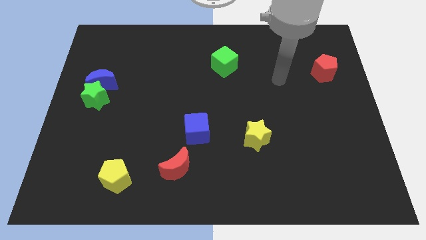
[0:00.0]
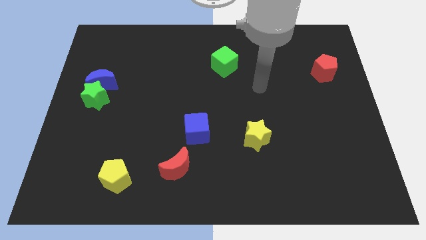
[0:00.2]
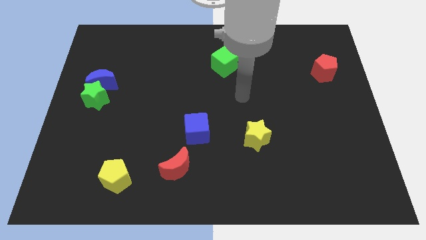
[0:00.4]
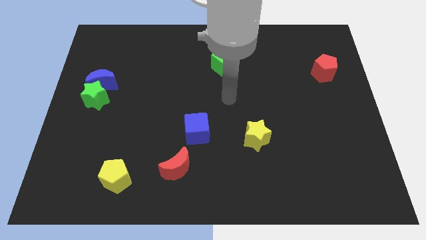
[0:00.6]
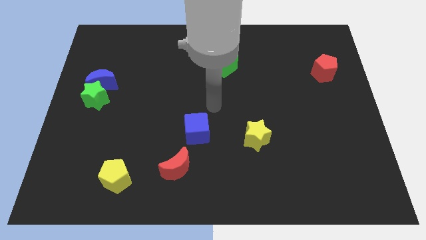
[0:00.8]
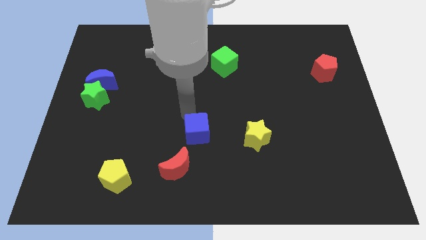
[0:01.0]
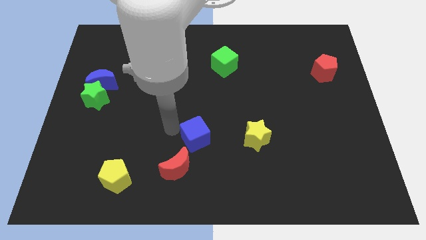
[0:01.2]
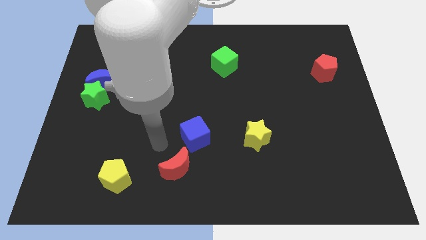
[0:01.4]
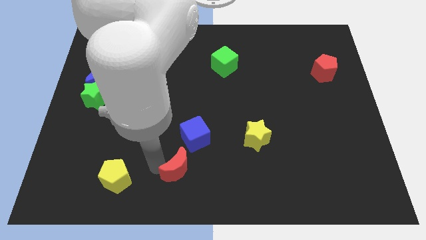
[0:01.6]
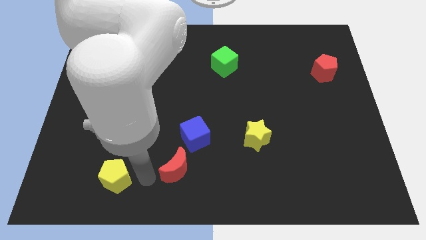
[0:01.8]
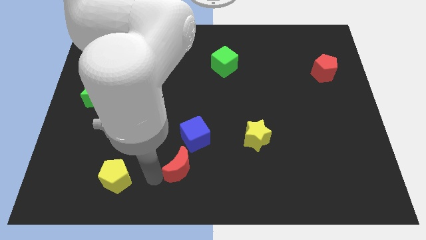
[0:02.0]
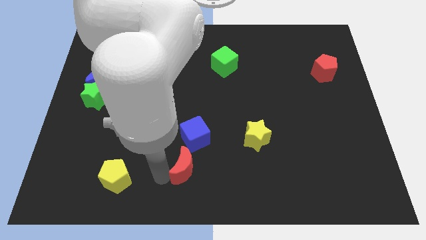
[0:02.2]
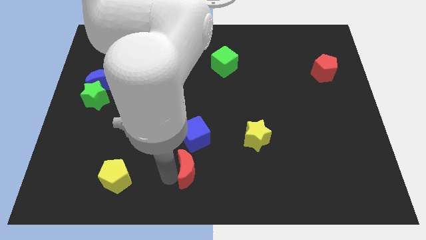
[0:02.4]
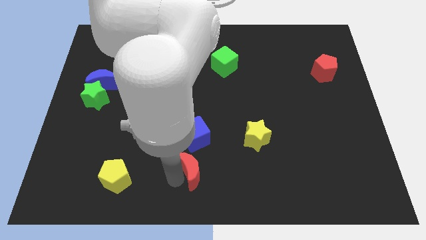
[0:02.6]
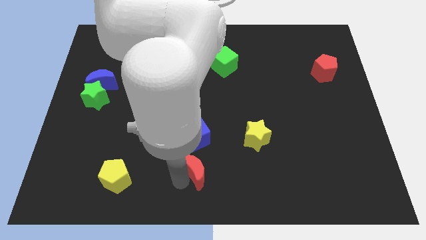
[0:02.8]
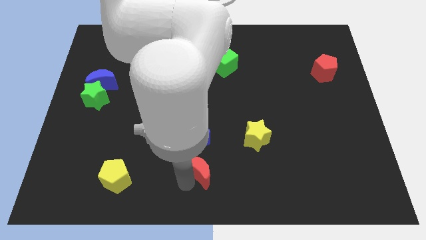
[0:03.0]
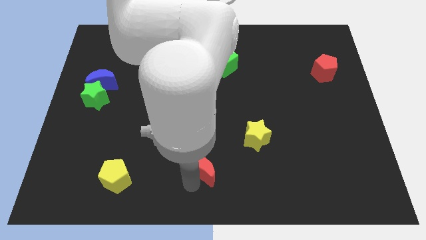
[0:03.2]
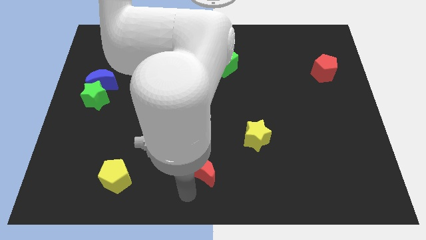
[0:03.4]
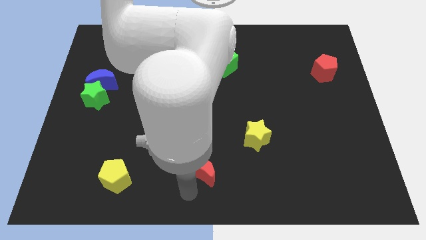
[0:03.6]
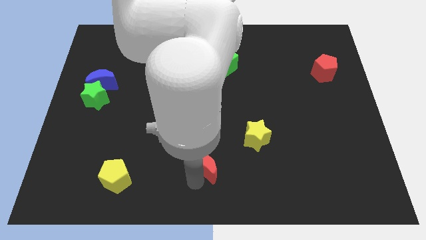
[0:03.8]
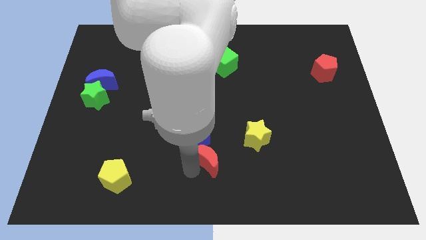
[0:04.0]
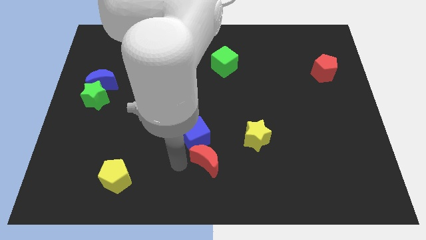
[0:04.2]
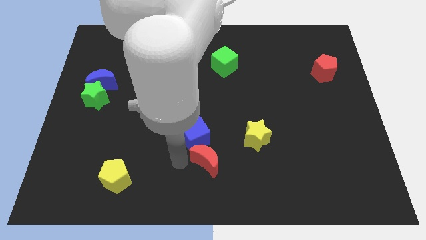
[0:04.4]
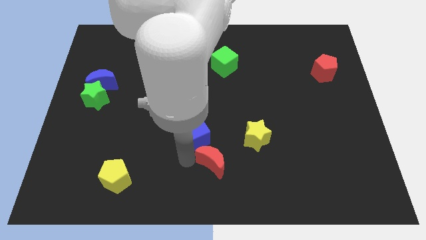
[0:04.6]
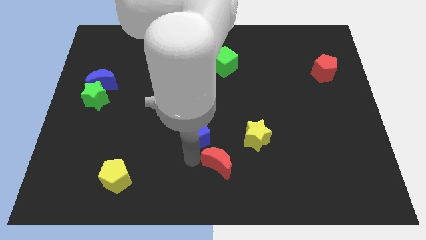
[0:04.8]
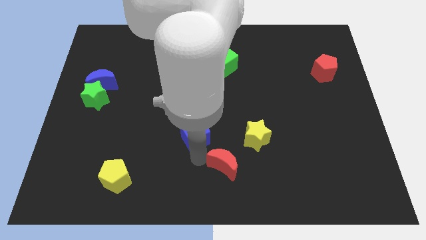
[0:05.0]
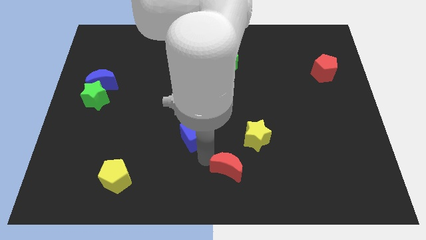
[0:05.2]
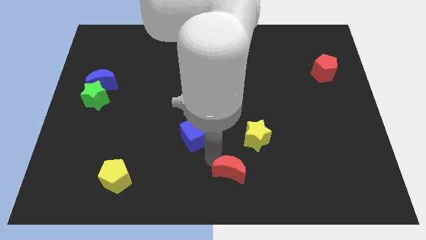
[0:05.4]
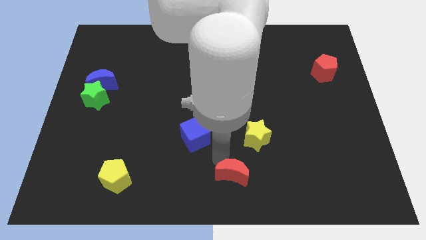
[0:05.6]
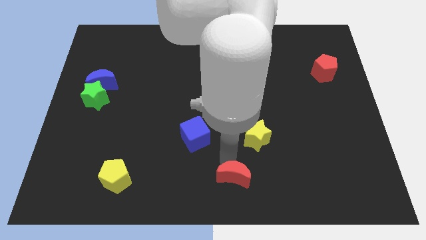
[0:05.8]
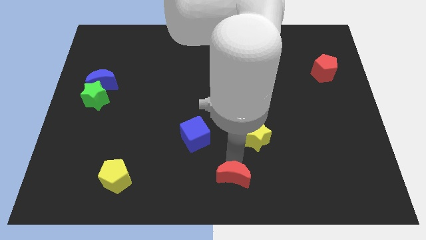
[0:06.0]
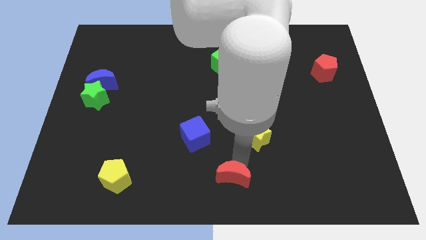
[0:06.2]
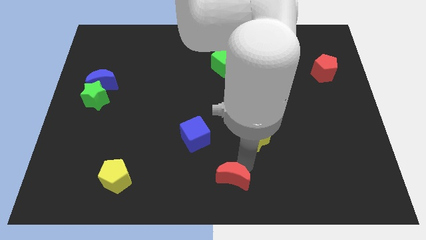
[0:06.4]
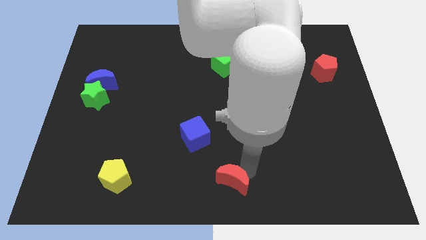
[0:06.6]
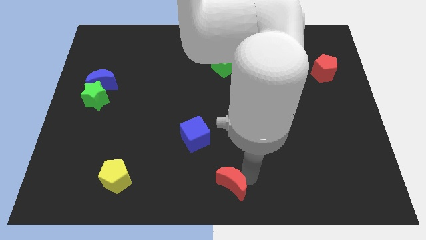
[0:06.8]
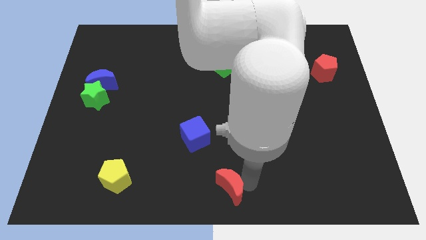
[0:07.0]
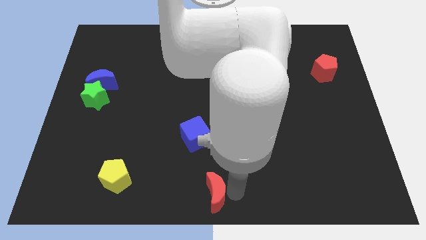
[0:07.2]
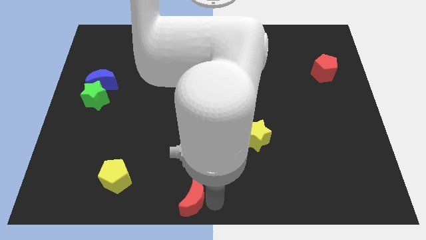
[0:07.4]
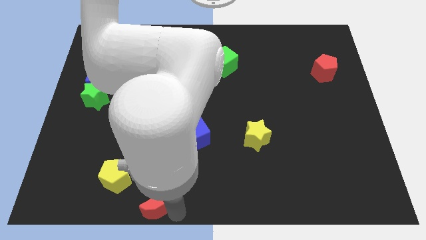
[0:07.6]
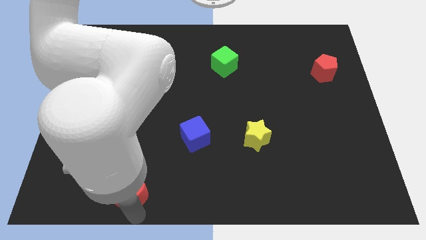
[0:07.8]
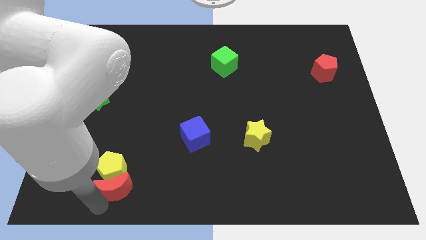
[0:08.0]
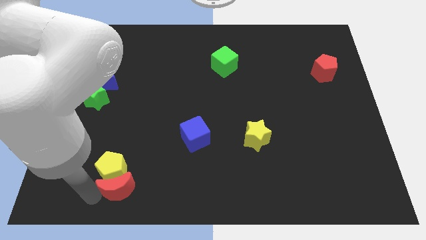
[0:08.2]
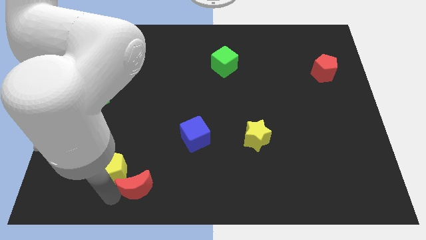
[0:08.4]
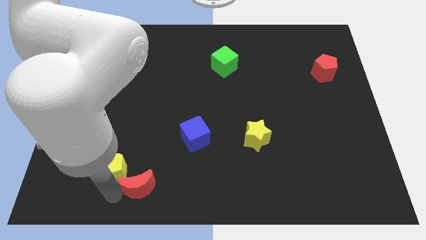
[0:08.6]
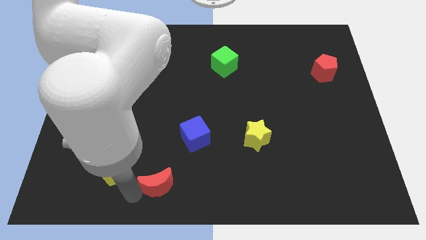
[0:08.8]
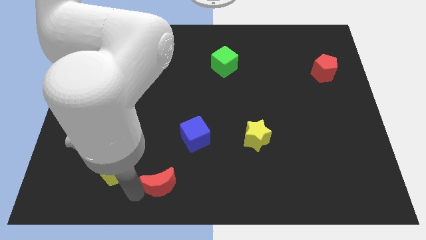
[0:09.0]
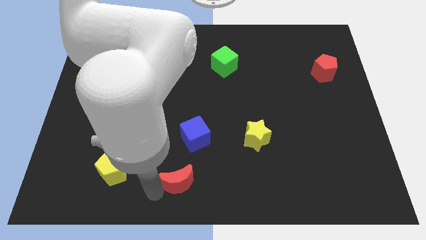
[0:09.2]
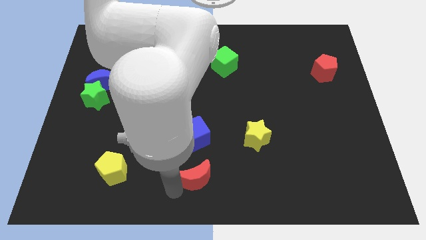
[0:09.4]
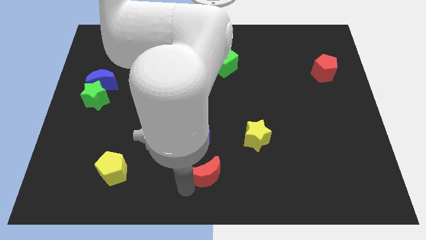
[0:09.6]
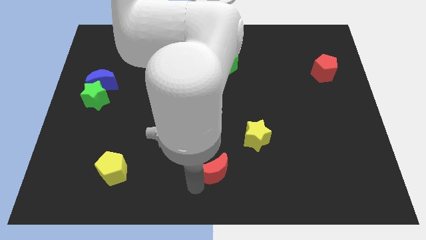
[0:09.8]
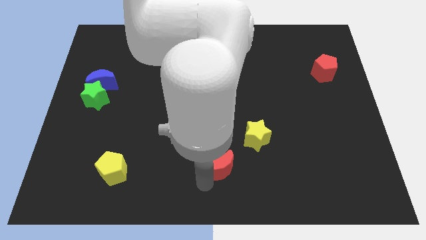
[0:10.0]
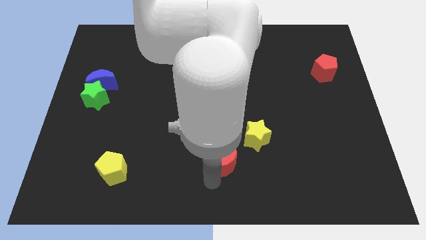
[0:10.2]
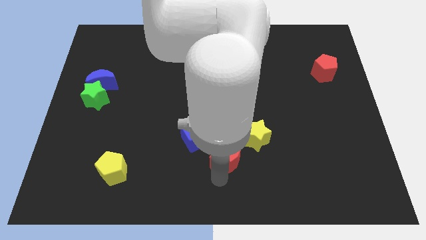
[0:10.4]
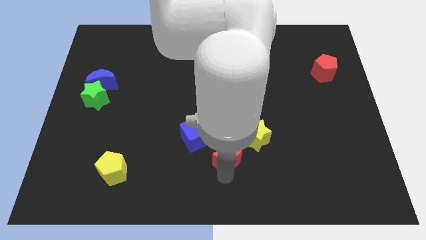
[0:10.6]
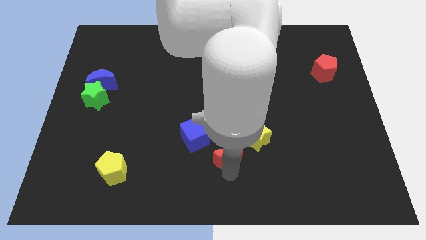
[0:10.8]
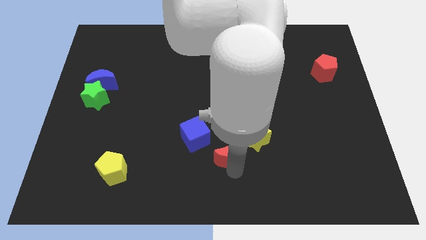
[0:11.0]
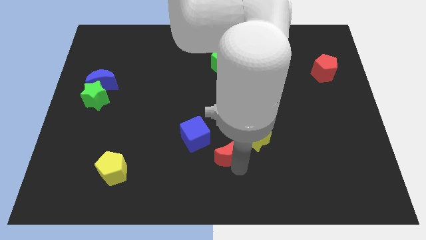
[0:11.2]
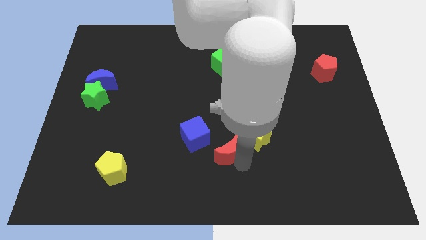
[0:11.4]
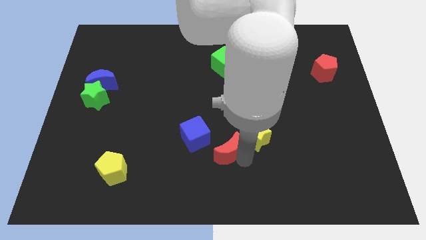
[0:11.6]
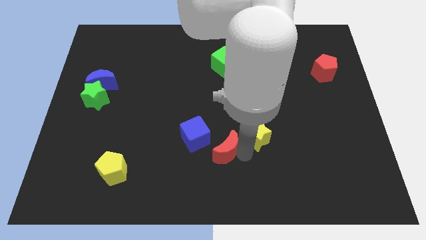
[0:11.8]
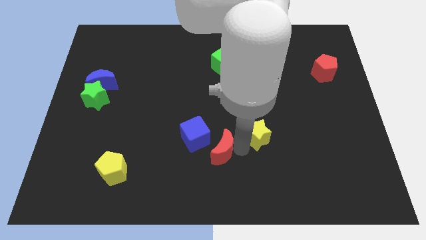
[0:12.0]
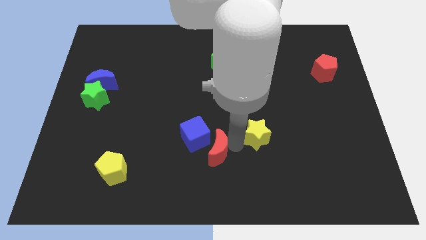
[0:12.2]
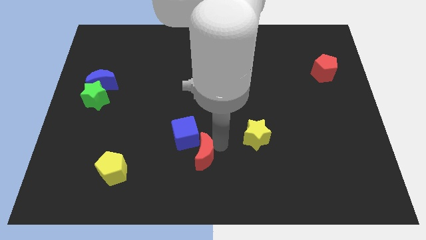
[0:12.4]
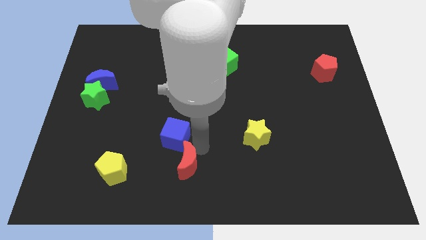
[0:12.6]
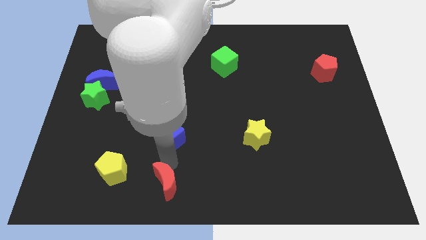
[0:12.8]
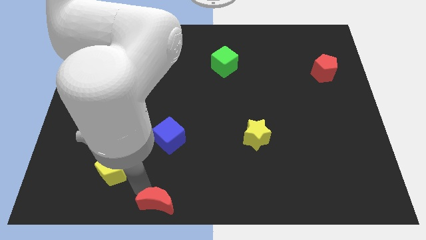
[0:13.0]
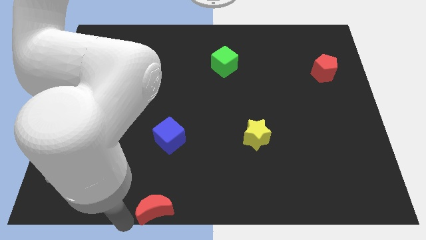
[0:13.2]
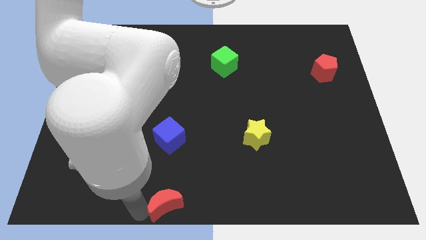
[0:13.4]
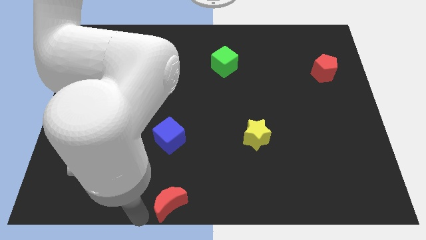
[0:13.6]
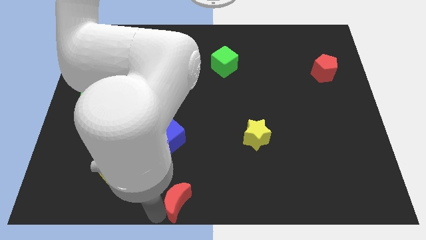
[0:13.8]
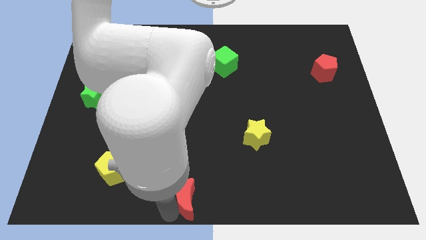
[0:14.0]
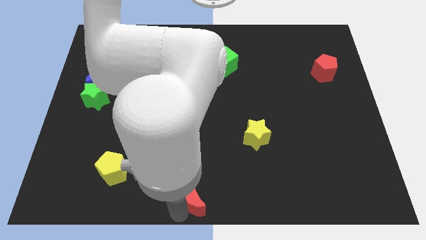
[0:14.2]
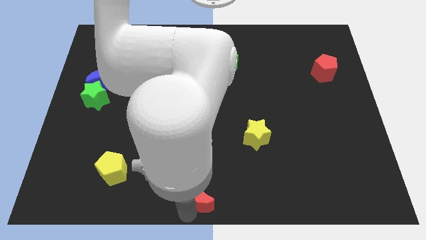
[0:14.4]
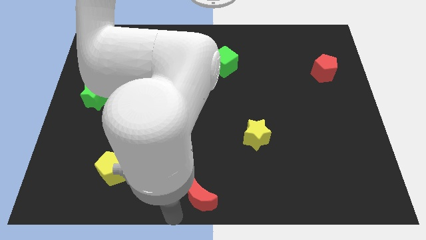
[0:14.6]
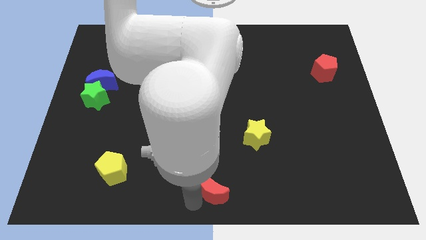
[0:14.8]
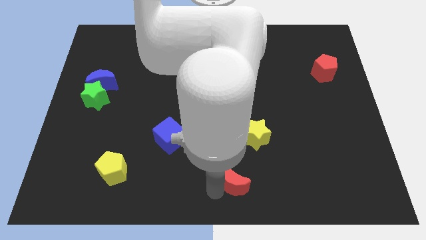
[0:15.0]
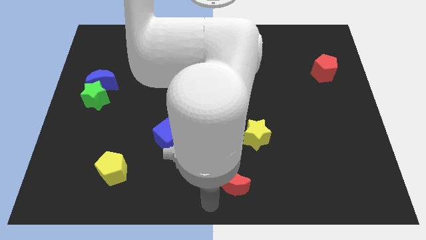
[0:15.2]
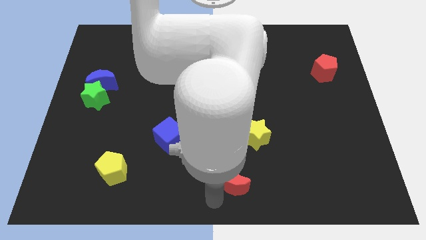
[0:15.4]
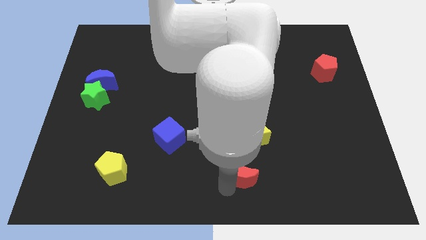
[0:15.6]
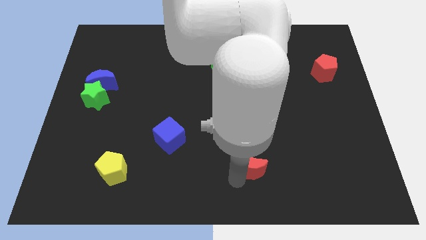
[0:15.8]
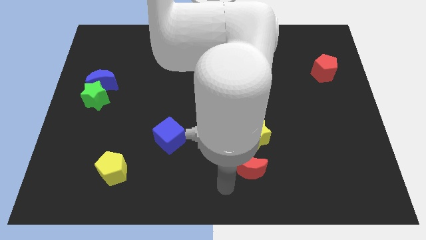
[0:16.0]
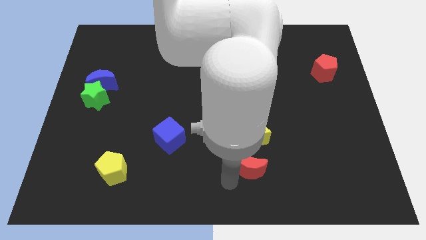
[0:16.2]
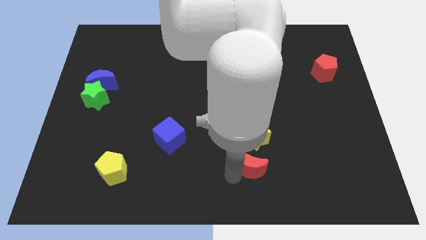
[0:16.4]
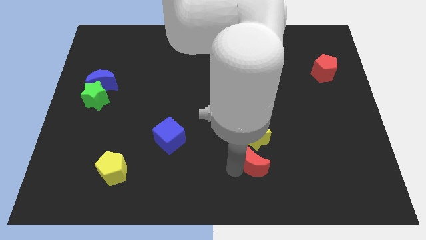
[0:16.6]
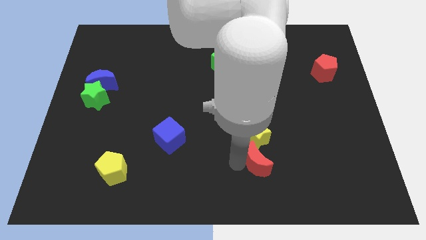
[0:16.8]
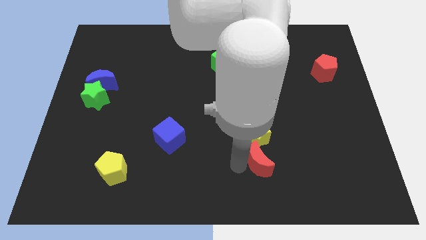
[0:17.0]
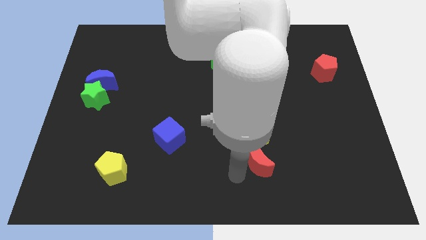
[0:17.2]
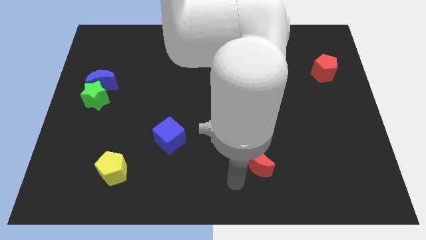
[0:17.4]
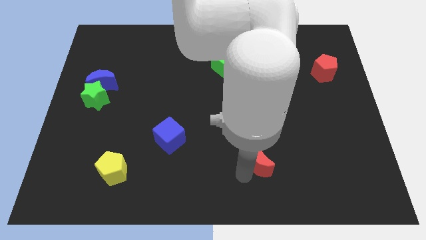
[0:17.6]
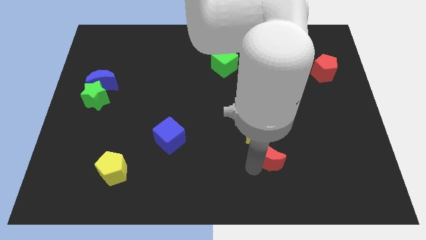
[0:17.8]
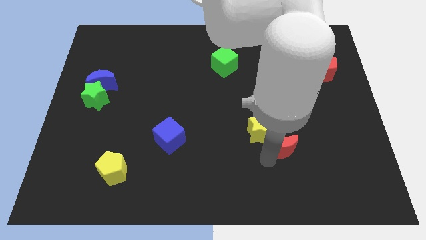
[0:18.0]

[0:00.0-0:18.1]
slide the red moon right of the yellow star
